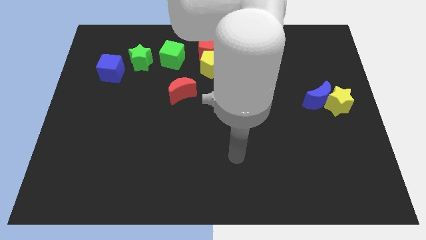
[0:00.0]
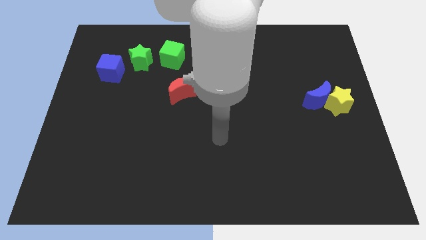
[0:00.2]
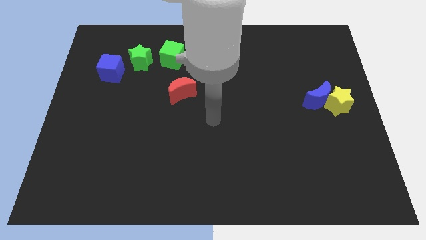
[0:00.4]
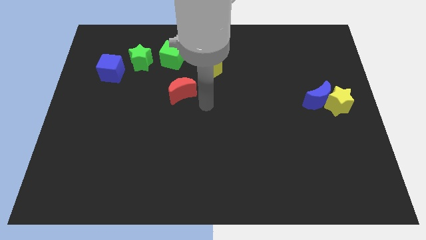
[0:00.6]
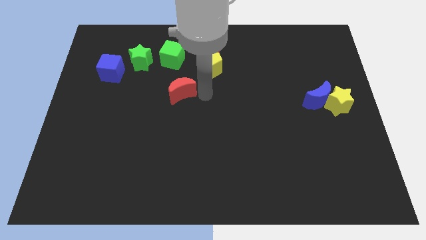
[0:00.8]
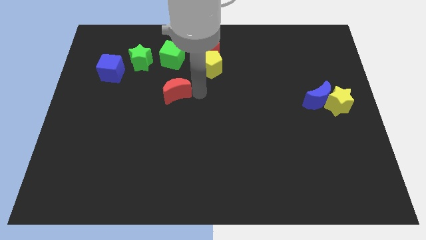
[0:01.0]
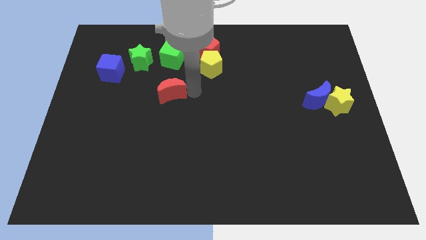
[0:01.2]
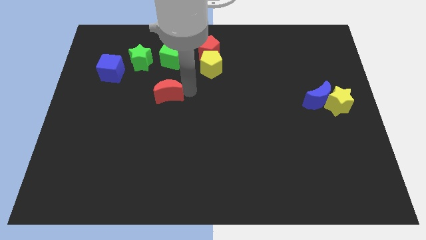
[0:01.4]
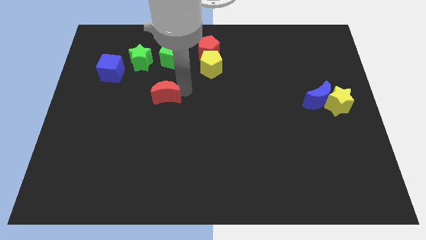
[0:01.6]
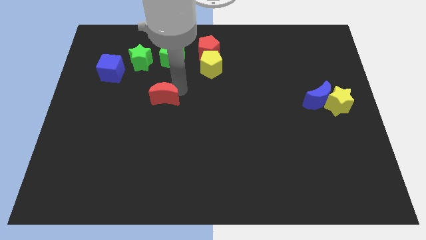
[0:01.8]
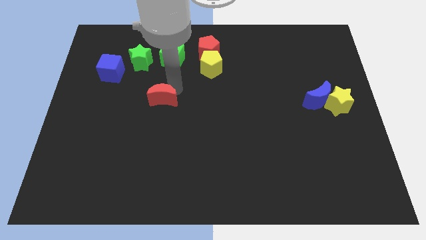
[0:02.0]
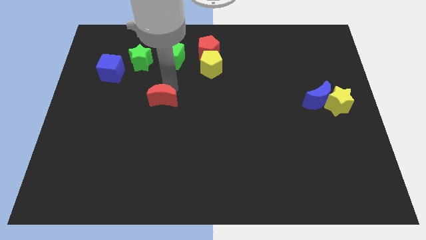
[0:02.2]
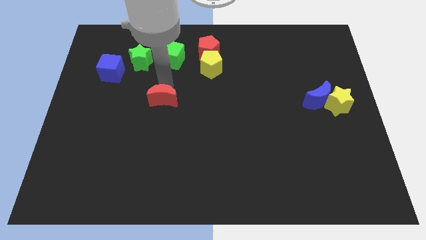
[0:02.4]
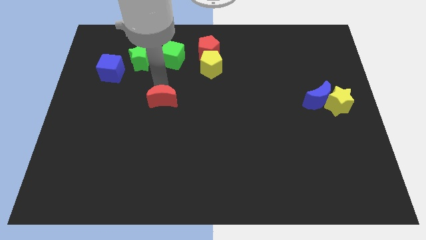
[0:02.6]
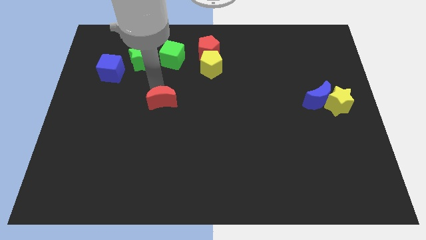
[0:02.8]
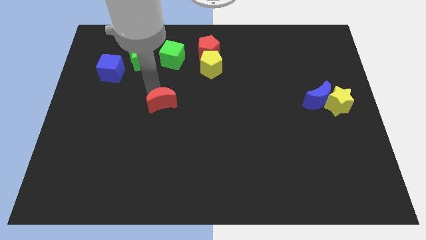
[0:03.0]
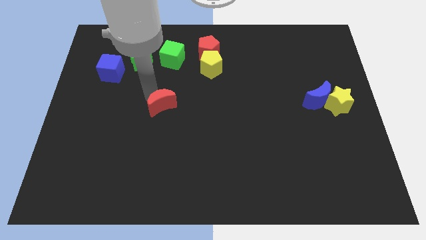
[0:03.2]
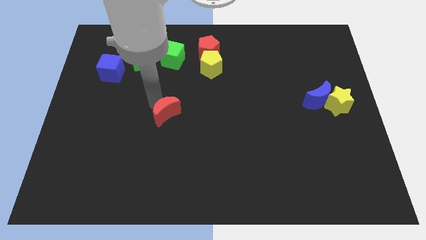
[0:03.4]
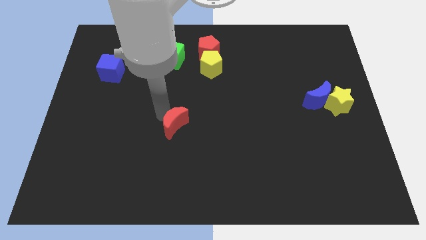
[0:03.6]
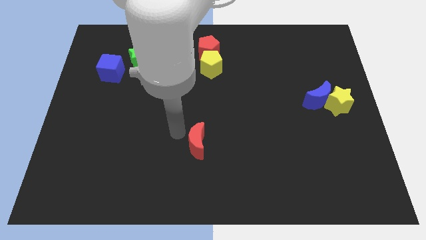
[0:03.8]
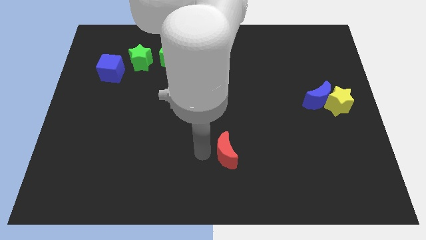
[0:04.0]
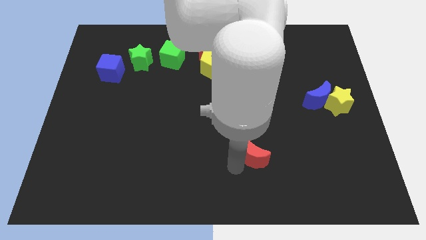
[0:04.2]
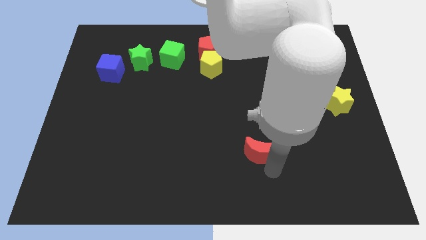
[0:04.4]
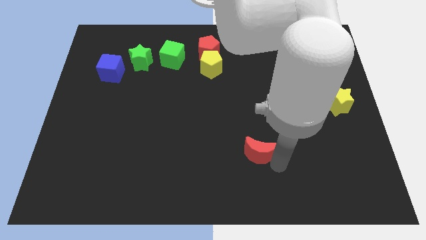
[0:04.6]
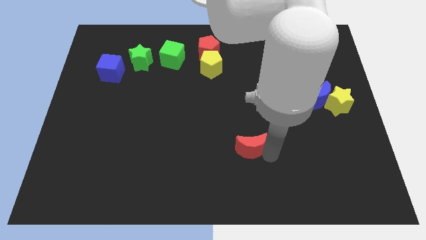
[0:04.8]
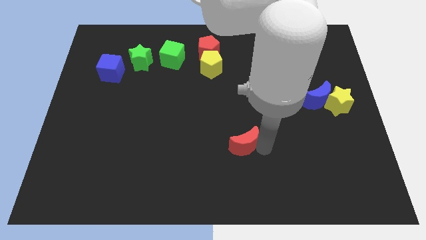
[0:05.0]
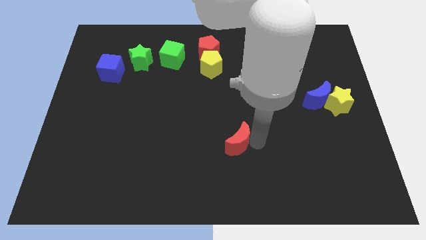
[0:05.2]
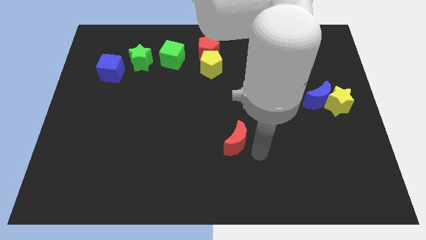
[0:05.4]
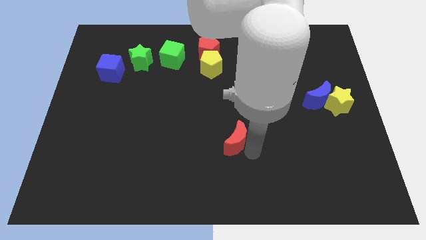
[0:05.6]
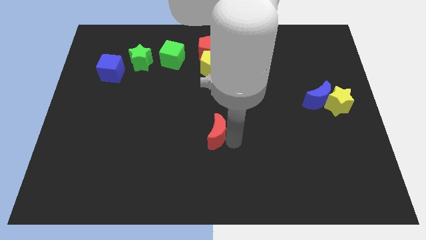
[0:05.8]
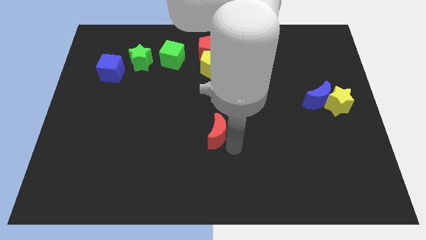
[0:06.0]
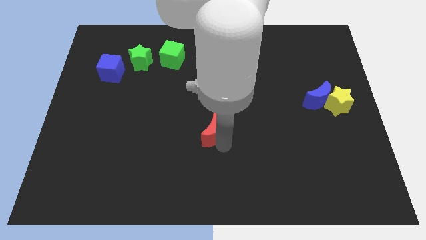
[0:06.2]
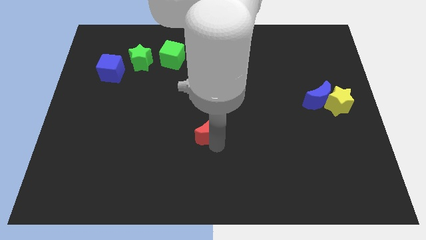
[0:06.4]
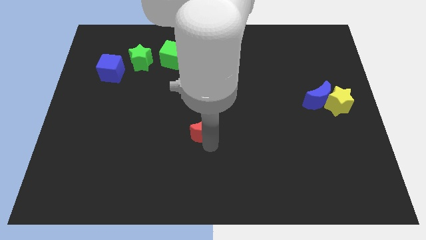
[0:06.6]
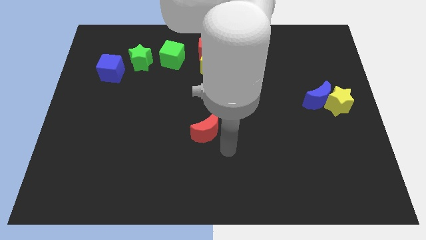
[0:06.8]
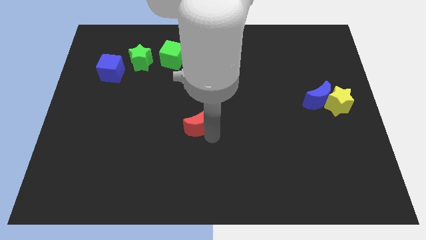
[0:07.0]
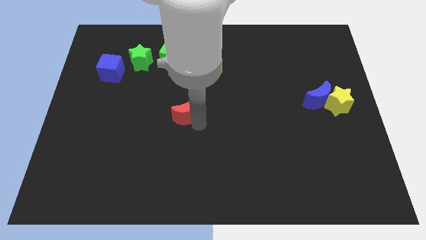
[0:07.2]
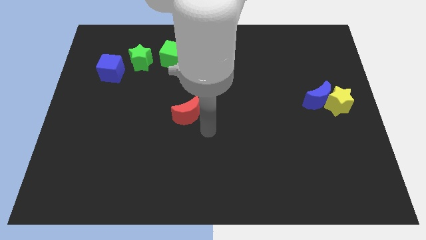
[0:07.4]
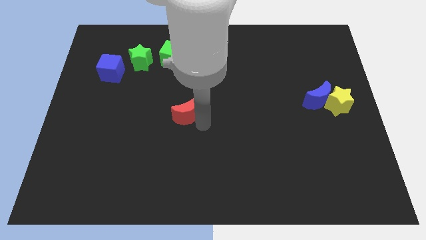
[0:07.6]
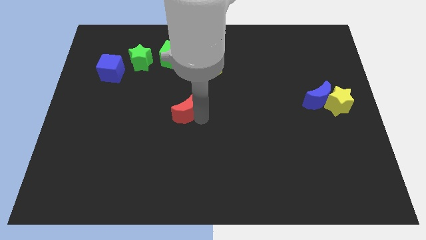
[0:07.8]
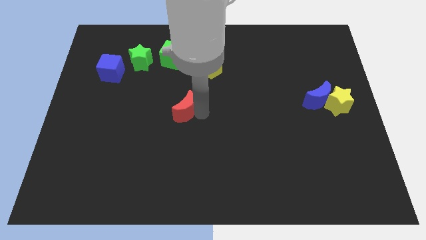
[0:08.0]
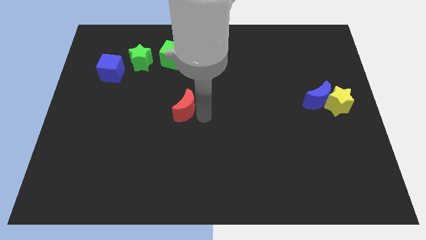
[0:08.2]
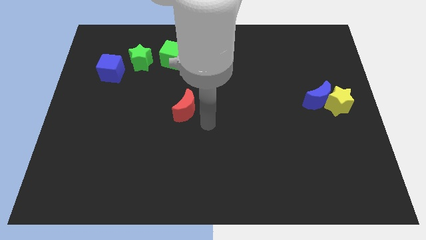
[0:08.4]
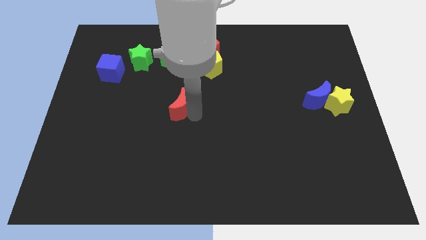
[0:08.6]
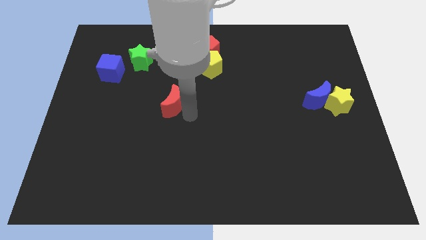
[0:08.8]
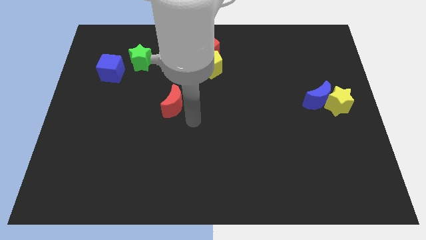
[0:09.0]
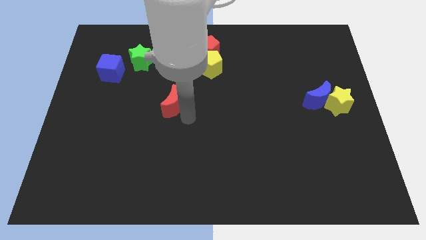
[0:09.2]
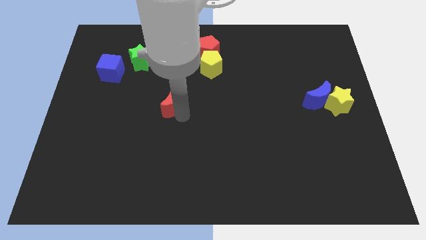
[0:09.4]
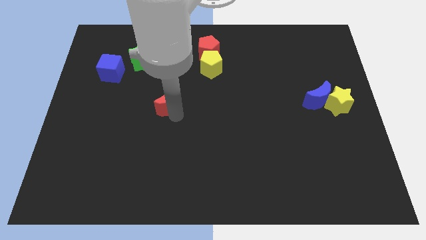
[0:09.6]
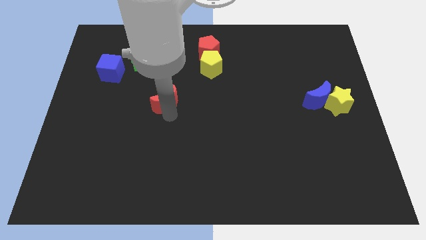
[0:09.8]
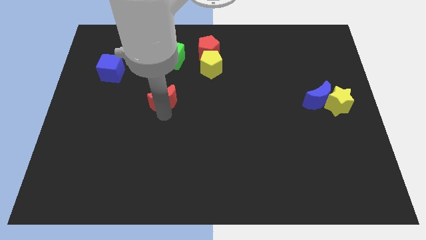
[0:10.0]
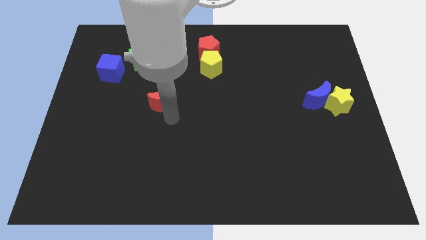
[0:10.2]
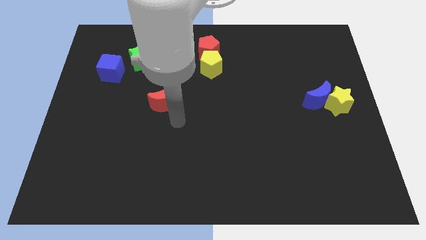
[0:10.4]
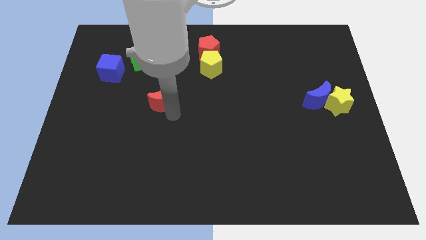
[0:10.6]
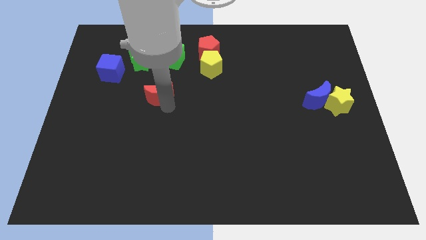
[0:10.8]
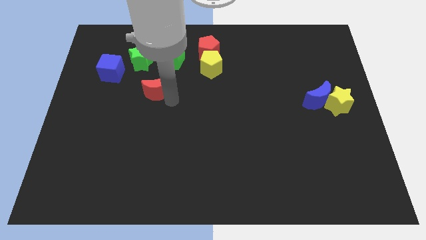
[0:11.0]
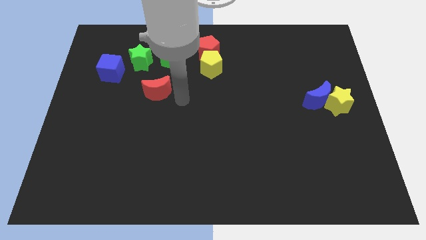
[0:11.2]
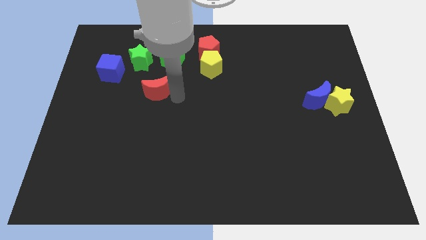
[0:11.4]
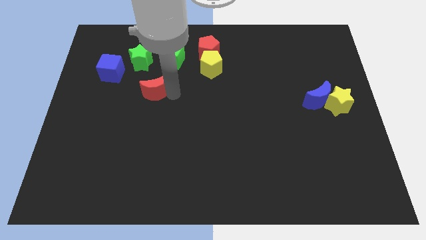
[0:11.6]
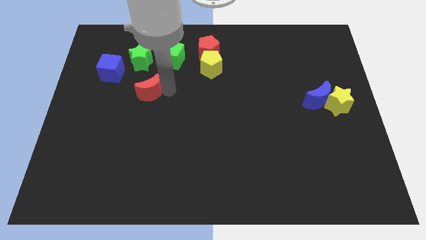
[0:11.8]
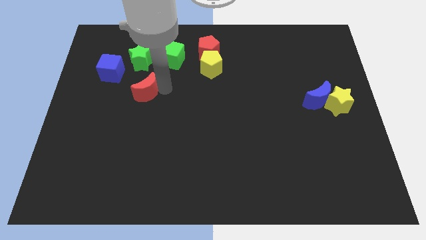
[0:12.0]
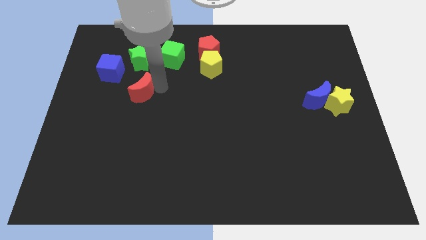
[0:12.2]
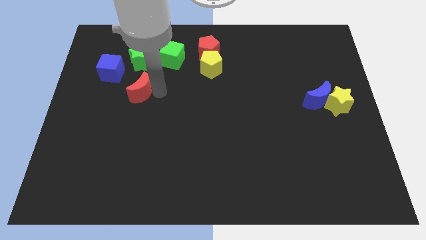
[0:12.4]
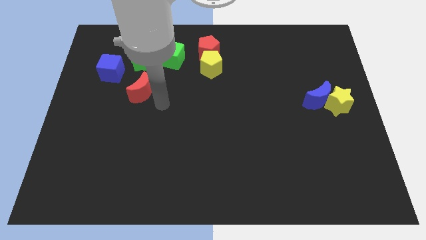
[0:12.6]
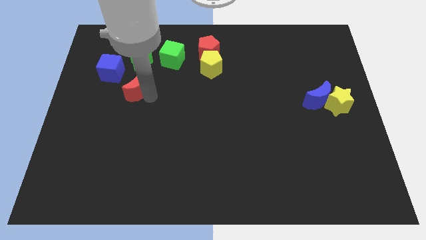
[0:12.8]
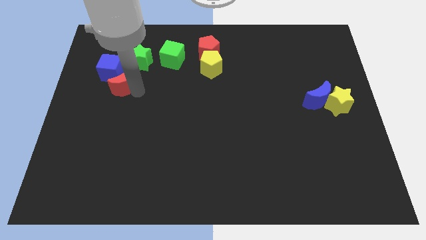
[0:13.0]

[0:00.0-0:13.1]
push the red moon to the bottom left side of the green star

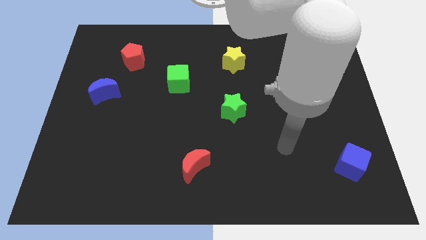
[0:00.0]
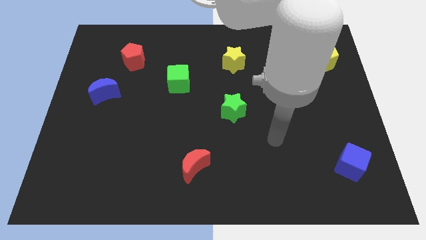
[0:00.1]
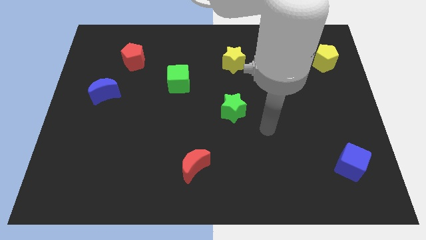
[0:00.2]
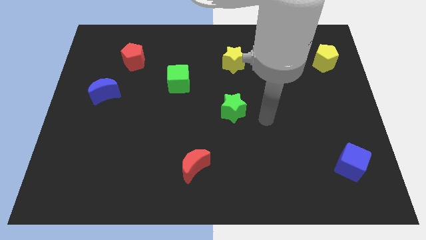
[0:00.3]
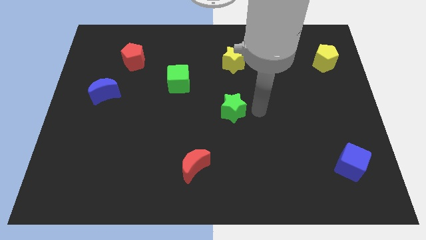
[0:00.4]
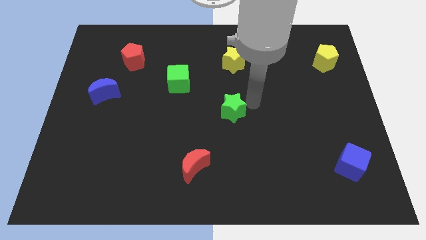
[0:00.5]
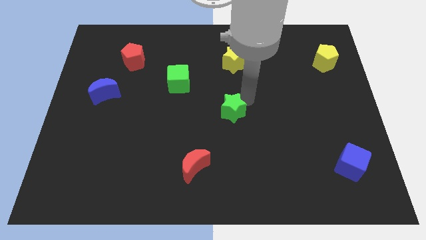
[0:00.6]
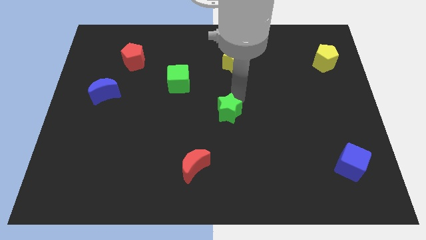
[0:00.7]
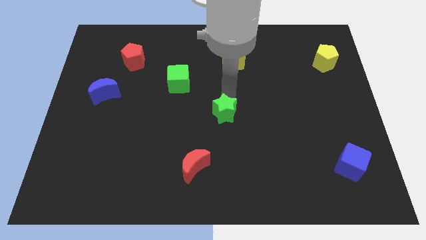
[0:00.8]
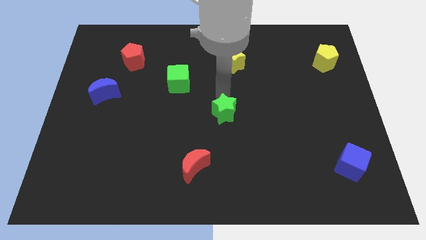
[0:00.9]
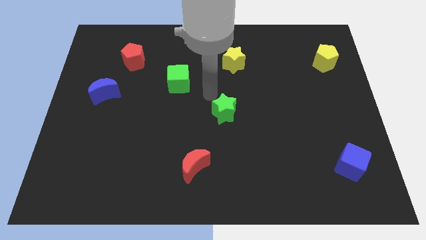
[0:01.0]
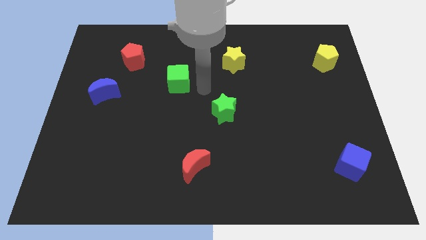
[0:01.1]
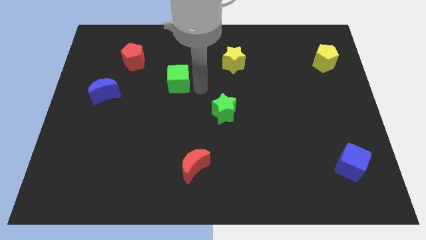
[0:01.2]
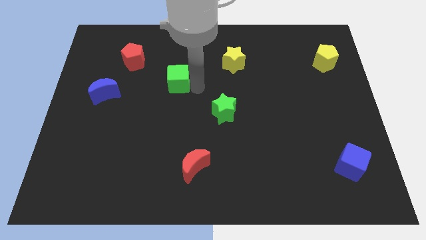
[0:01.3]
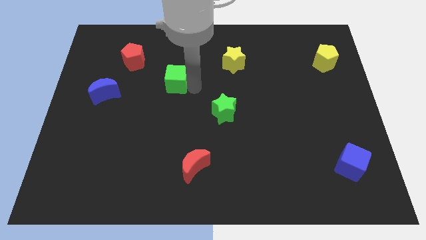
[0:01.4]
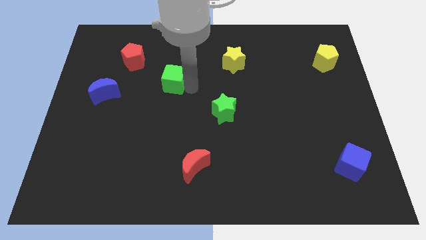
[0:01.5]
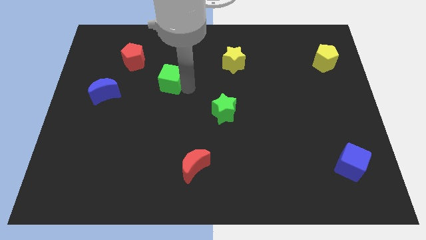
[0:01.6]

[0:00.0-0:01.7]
put the green cube diagonally down and to the right of the red pentagon
